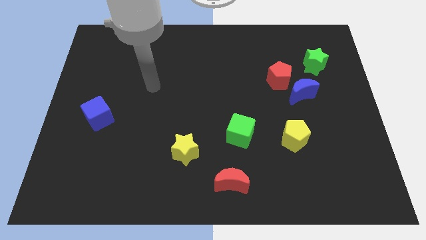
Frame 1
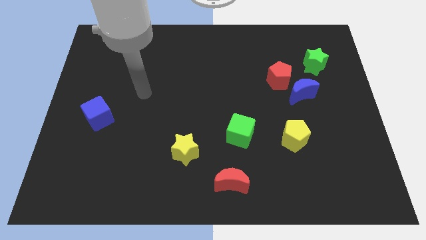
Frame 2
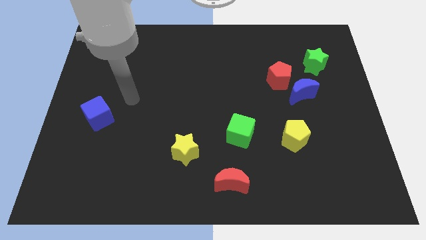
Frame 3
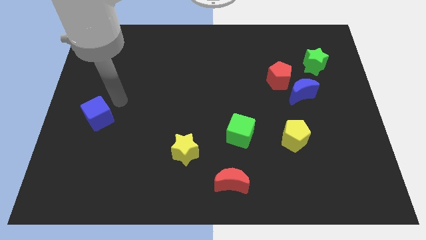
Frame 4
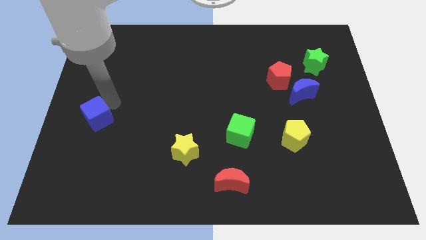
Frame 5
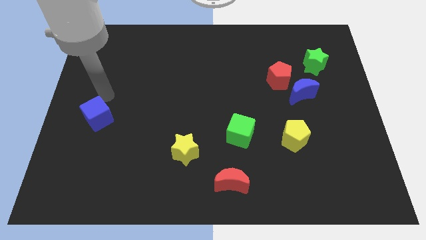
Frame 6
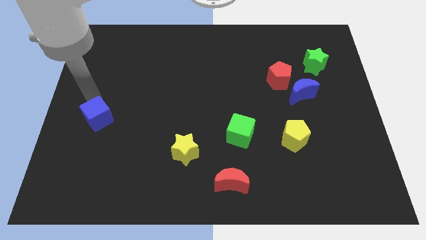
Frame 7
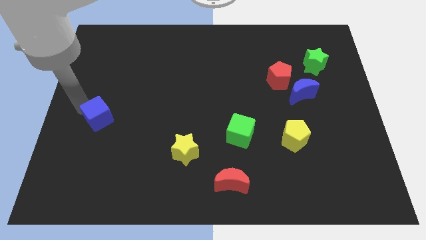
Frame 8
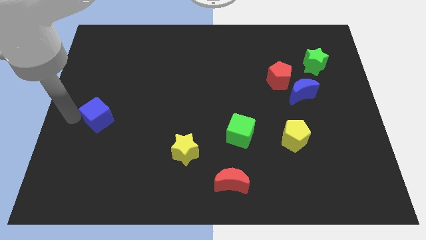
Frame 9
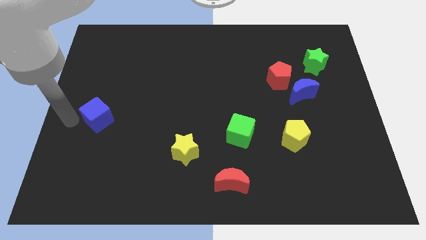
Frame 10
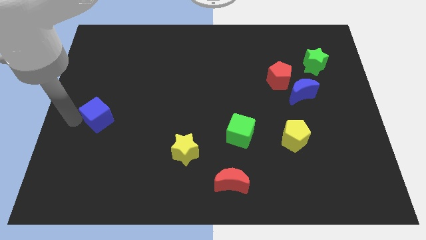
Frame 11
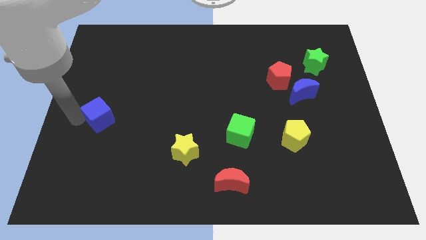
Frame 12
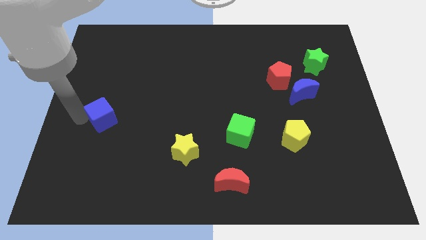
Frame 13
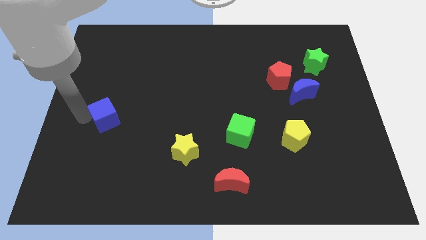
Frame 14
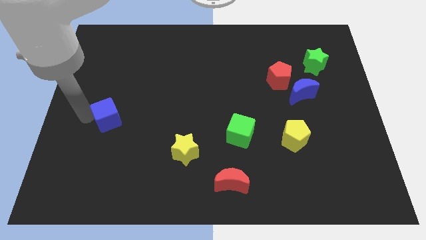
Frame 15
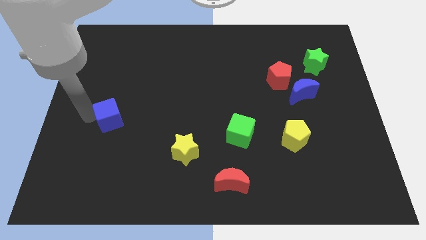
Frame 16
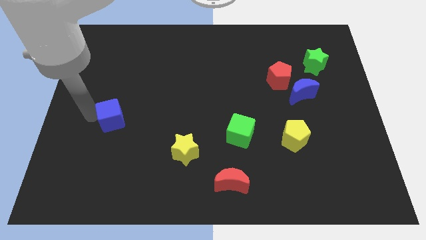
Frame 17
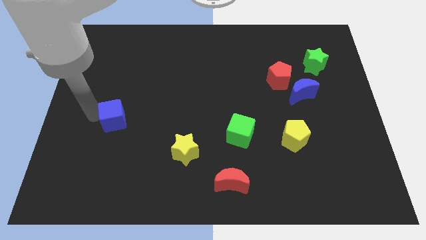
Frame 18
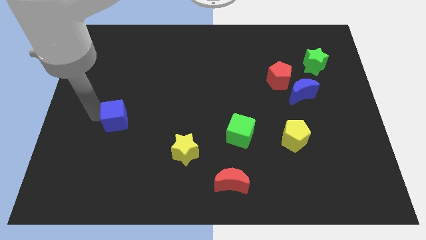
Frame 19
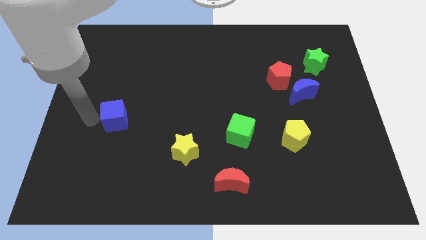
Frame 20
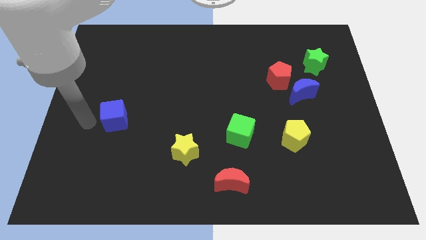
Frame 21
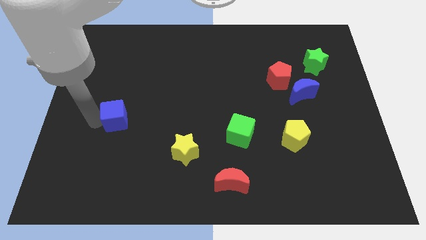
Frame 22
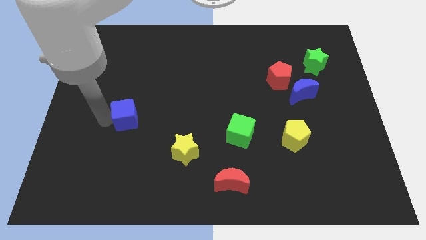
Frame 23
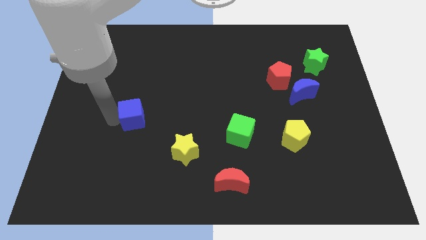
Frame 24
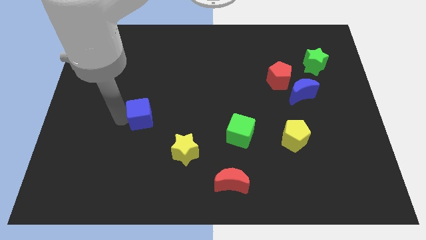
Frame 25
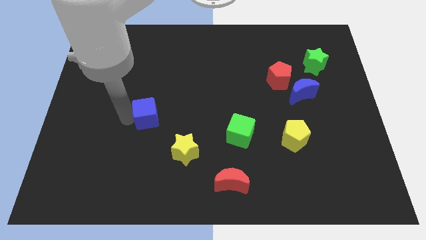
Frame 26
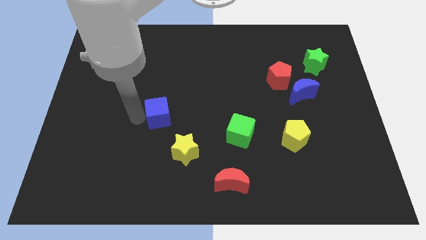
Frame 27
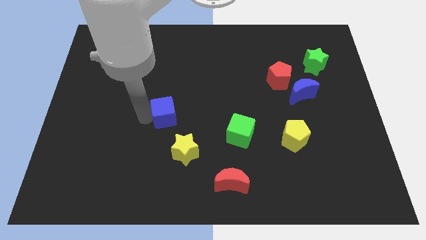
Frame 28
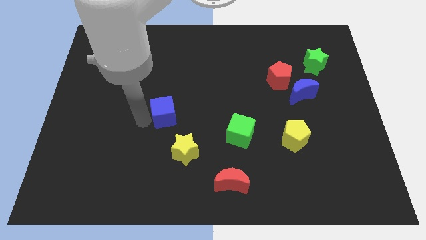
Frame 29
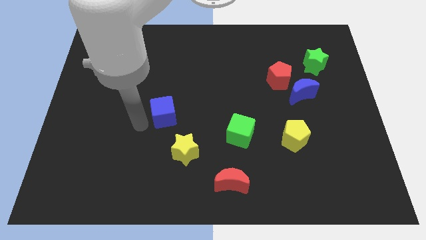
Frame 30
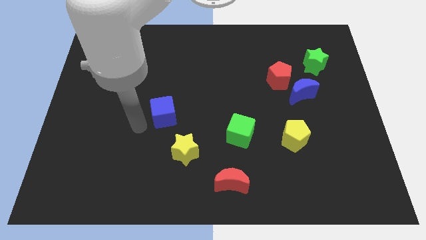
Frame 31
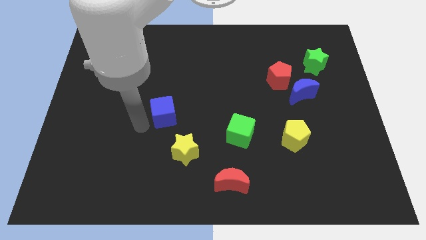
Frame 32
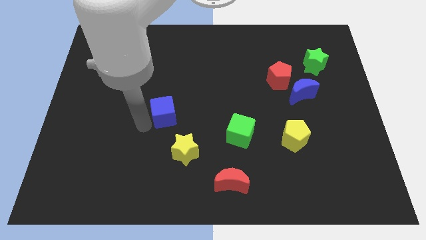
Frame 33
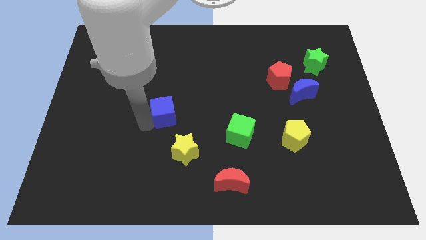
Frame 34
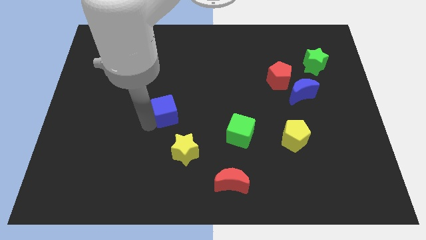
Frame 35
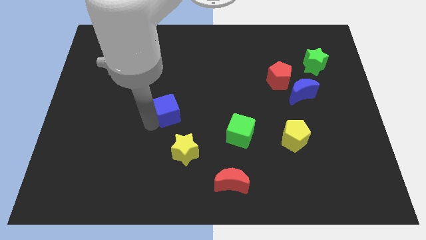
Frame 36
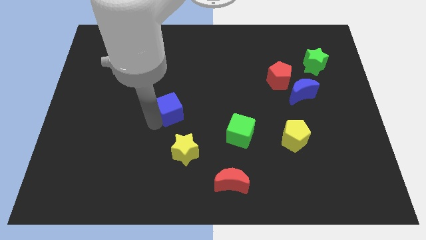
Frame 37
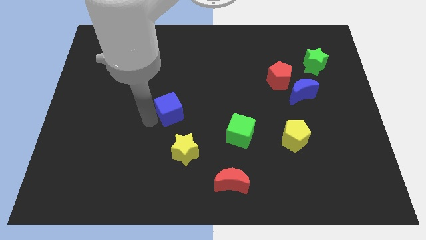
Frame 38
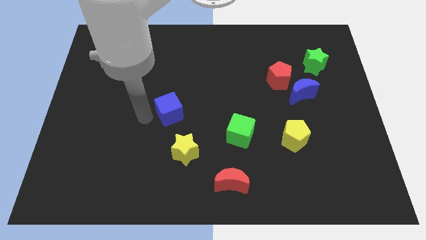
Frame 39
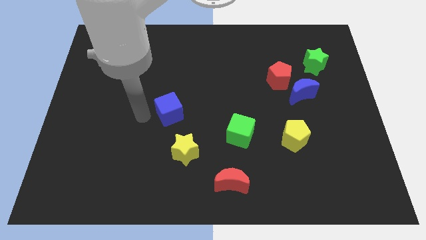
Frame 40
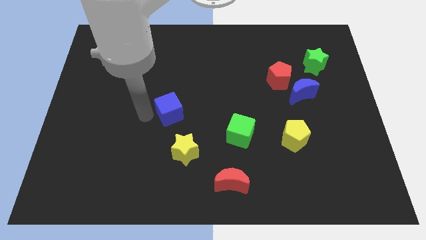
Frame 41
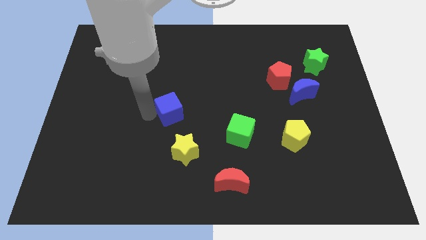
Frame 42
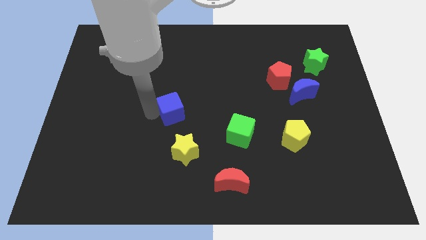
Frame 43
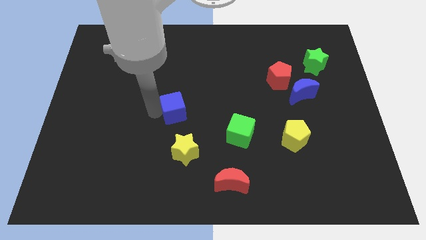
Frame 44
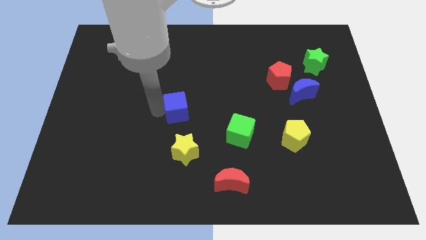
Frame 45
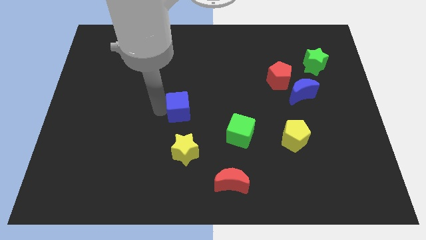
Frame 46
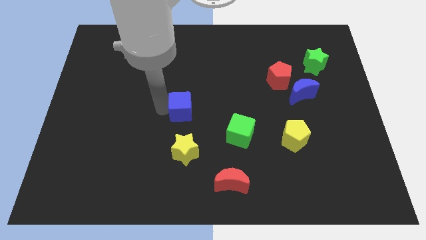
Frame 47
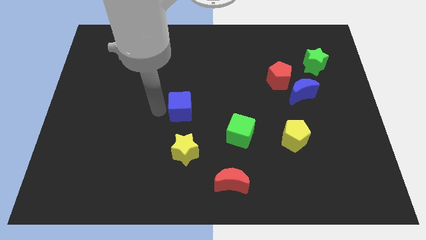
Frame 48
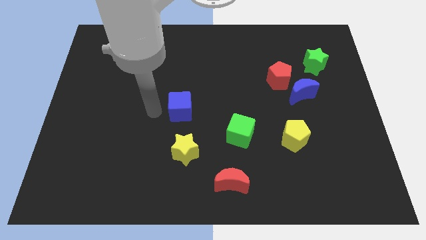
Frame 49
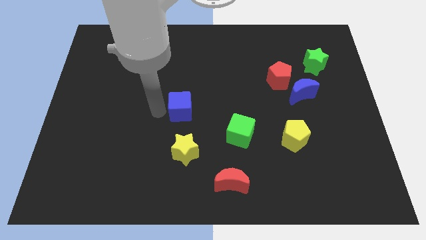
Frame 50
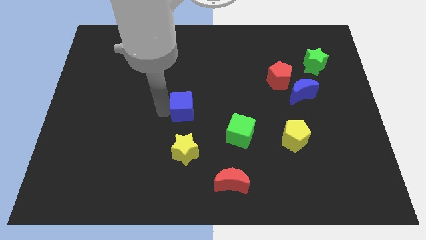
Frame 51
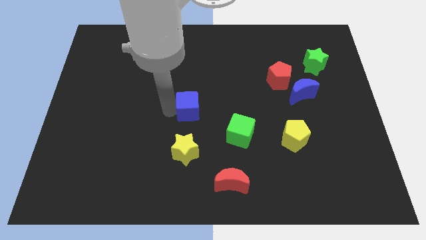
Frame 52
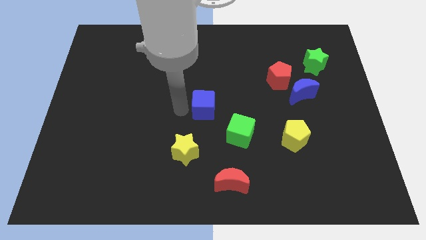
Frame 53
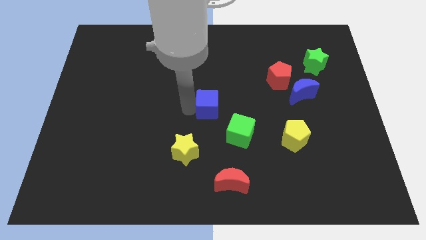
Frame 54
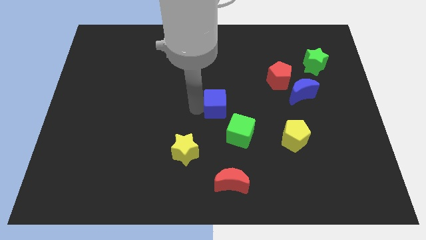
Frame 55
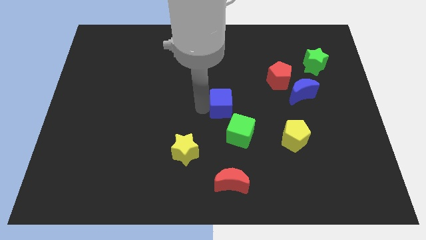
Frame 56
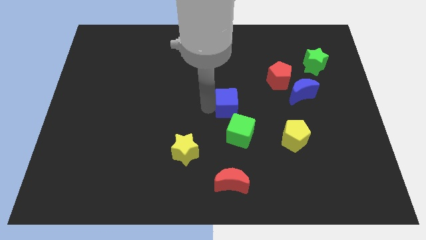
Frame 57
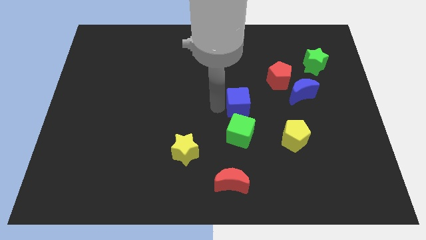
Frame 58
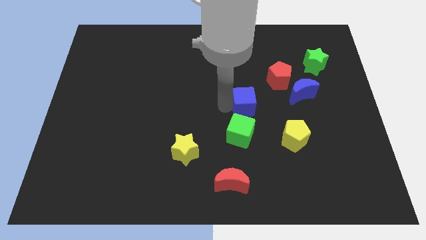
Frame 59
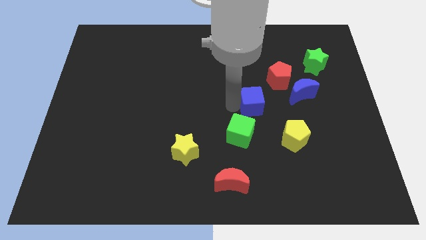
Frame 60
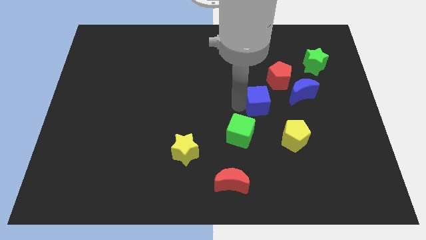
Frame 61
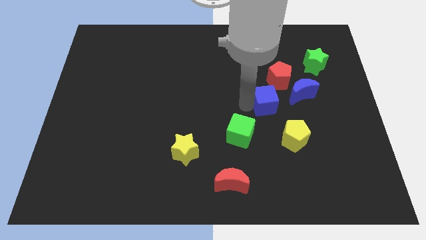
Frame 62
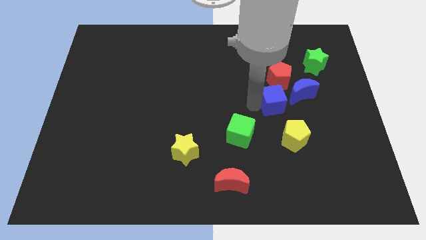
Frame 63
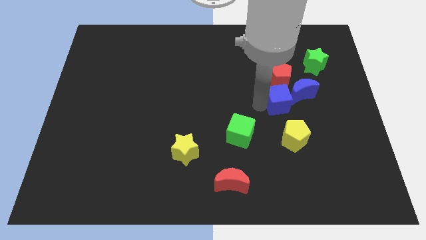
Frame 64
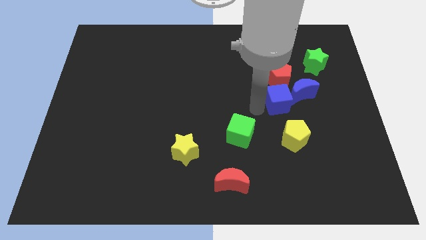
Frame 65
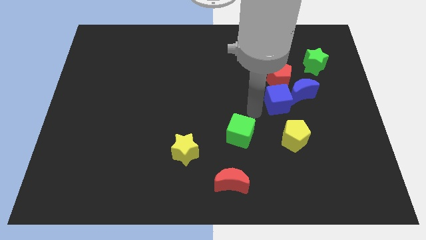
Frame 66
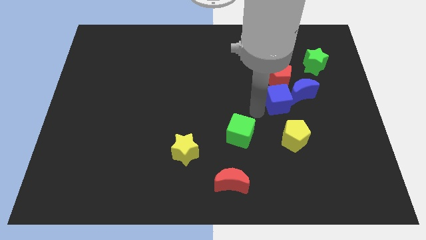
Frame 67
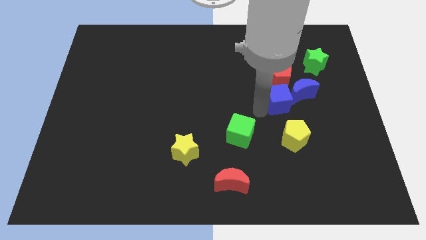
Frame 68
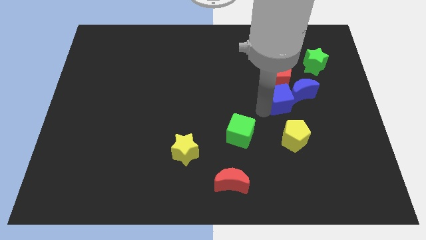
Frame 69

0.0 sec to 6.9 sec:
push the blue cube towards the blue moon

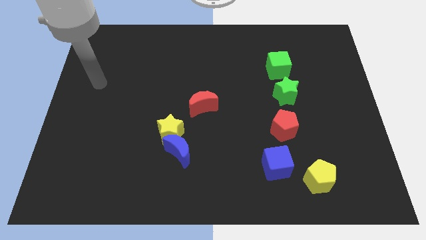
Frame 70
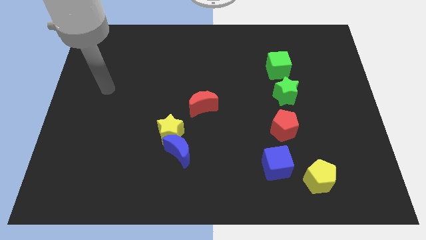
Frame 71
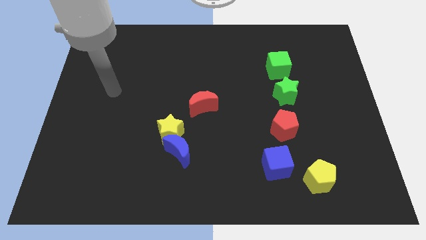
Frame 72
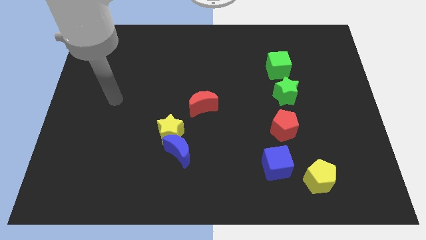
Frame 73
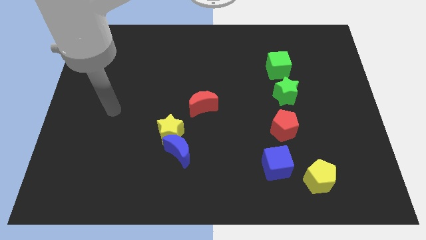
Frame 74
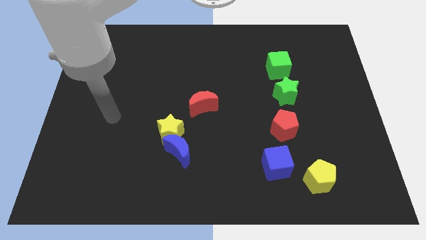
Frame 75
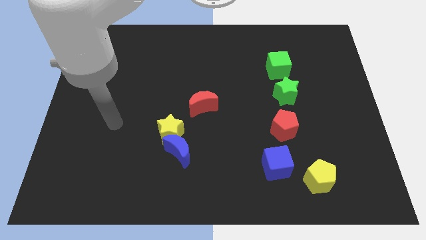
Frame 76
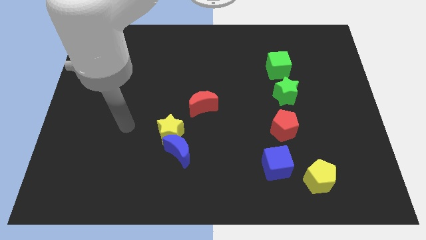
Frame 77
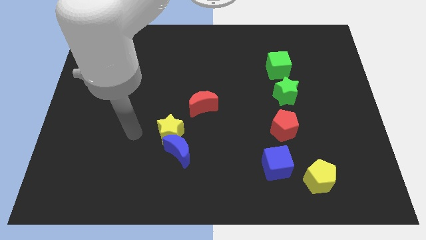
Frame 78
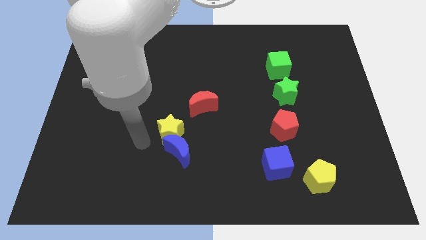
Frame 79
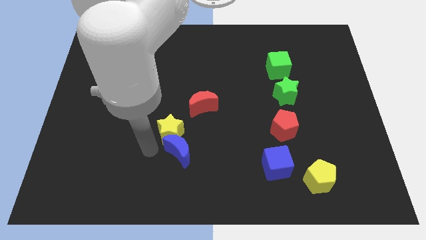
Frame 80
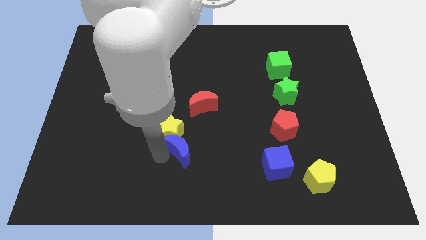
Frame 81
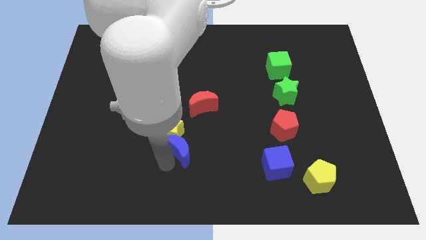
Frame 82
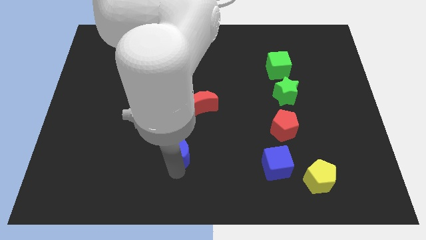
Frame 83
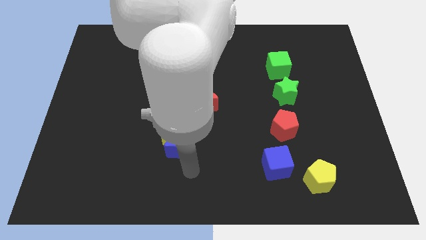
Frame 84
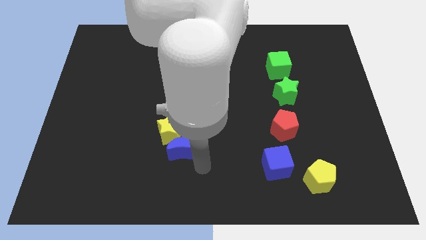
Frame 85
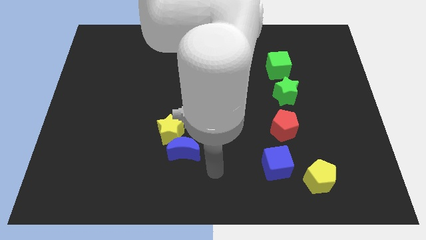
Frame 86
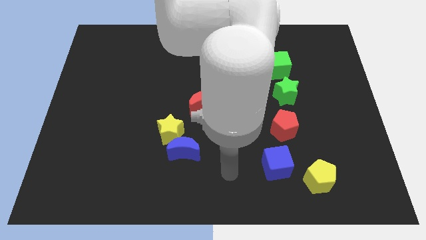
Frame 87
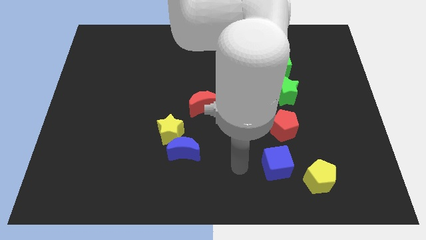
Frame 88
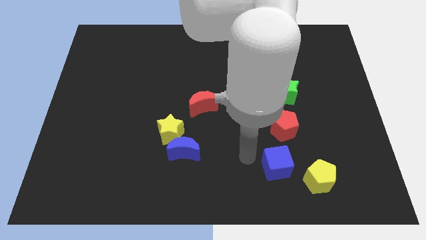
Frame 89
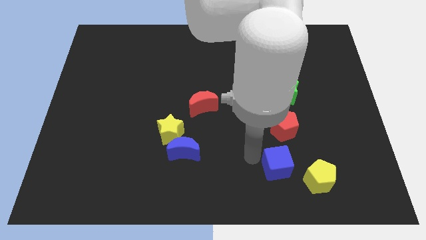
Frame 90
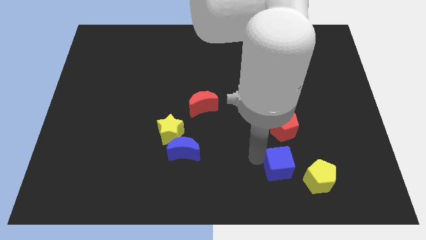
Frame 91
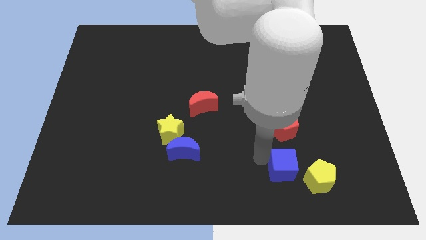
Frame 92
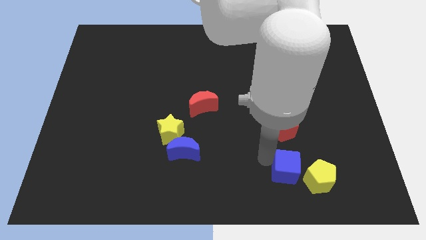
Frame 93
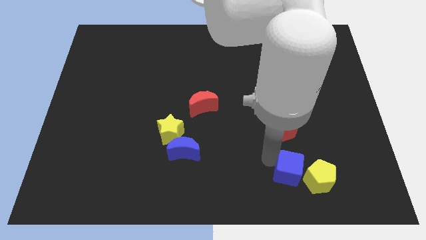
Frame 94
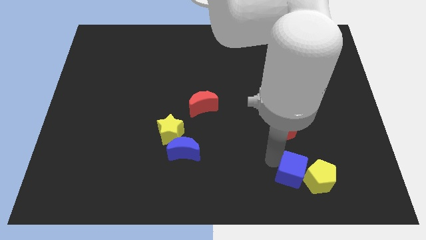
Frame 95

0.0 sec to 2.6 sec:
put the blue cube next to the yellow pentagon
